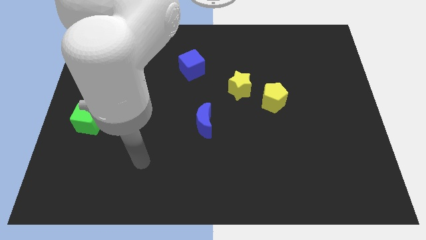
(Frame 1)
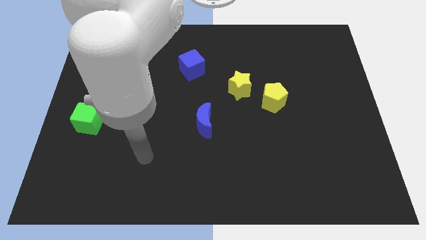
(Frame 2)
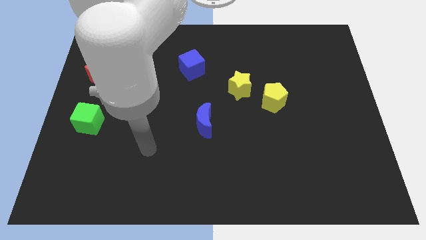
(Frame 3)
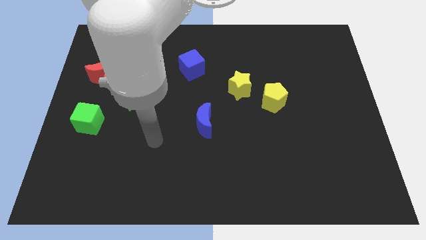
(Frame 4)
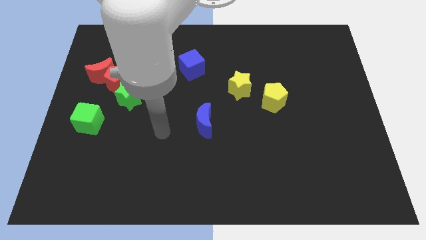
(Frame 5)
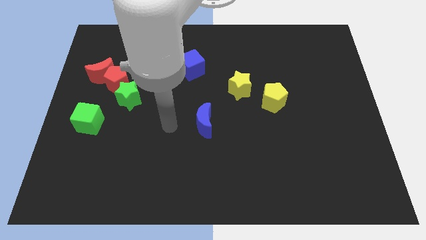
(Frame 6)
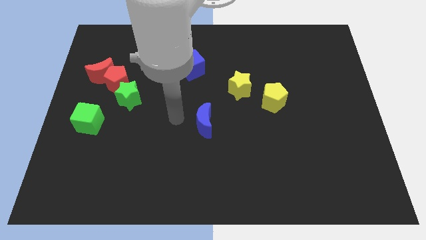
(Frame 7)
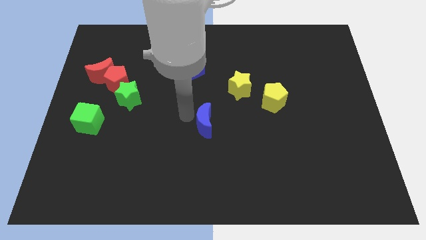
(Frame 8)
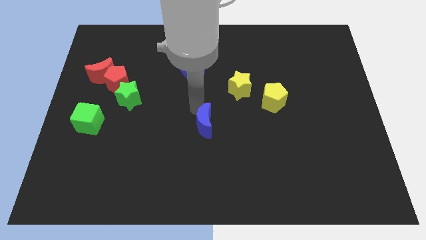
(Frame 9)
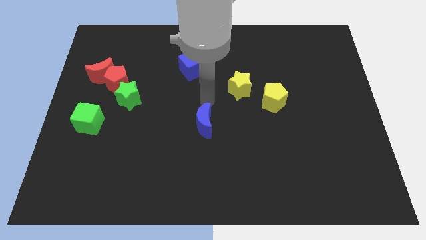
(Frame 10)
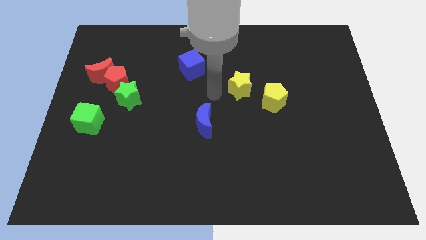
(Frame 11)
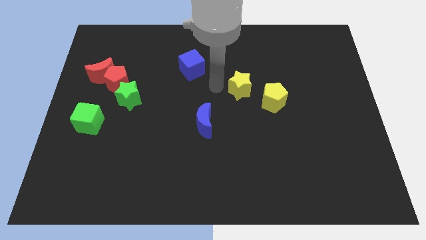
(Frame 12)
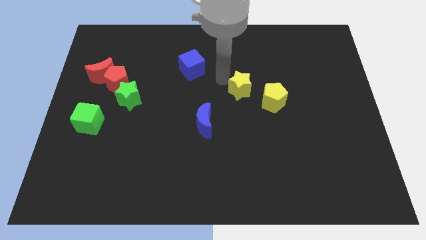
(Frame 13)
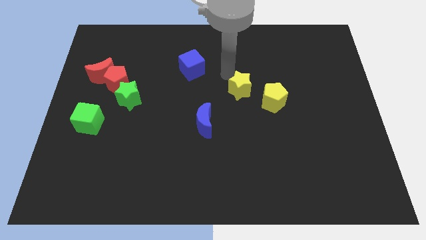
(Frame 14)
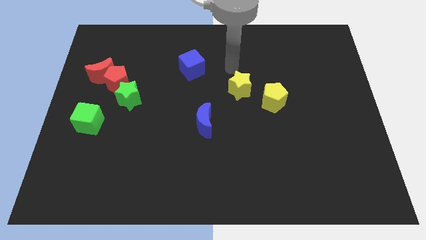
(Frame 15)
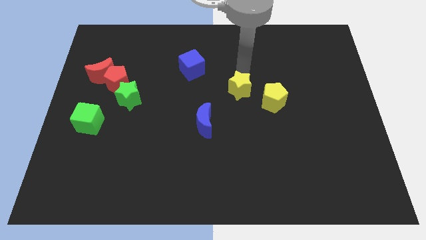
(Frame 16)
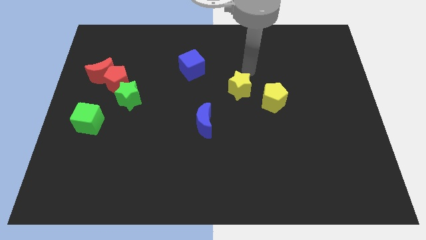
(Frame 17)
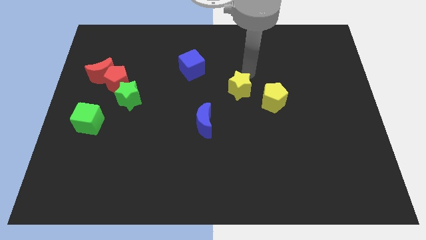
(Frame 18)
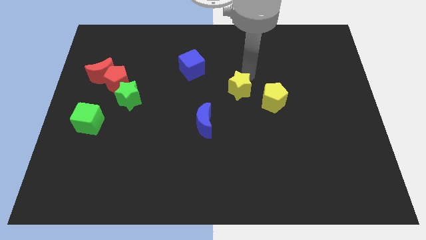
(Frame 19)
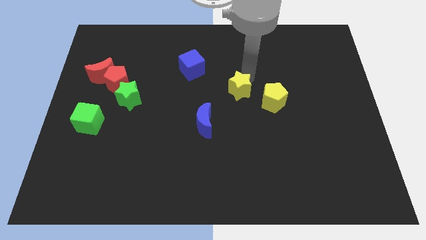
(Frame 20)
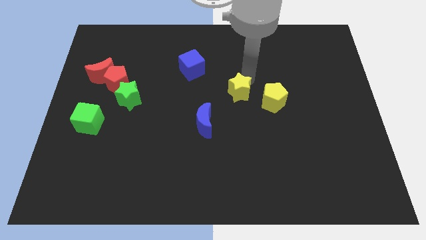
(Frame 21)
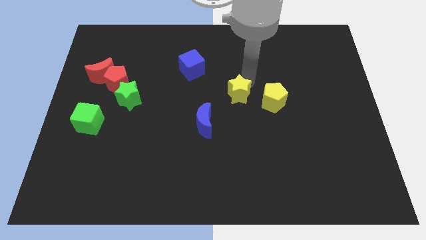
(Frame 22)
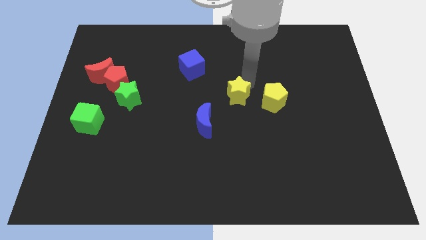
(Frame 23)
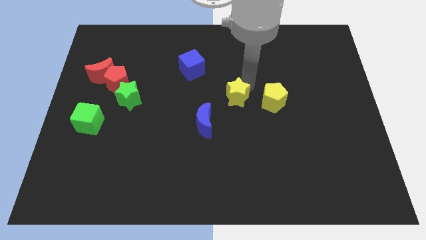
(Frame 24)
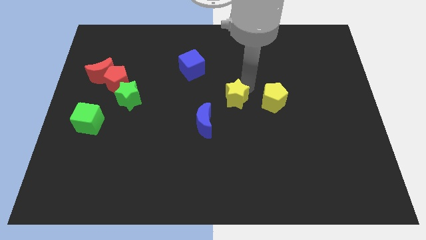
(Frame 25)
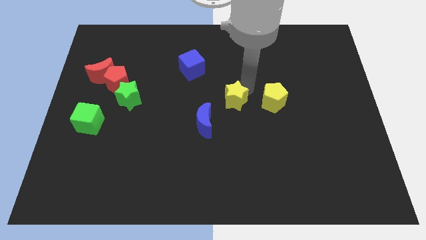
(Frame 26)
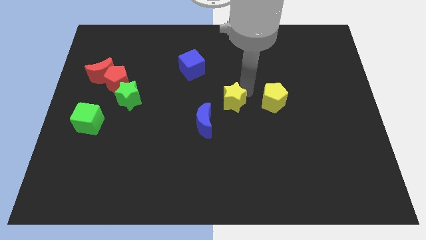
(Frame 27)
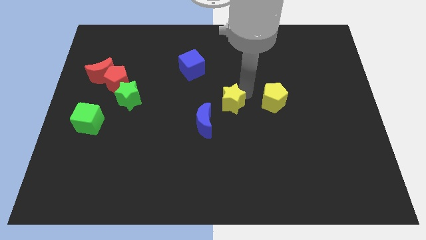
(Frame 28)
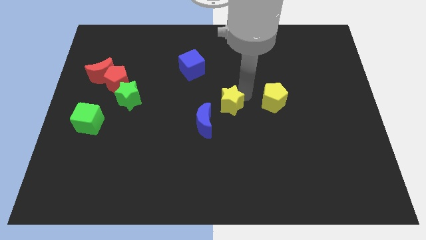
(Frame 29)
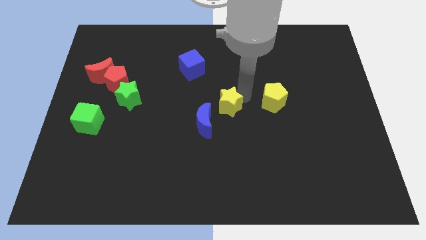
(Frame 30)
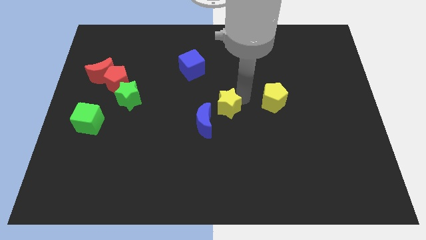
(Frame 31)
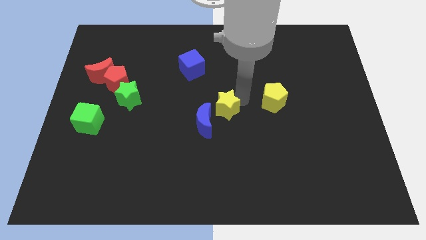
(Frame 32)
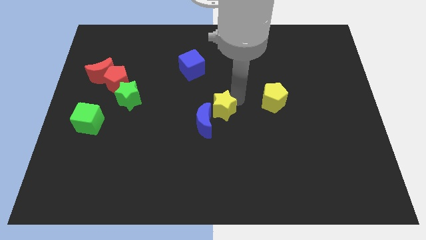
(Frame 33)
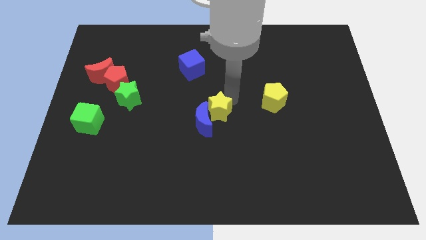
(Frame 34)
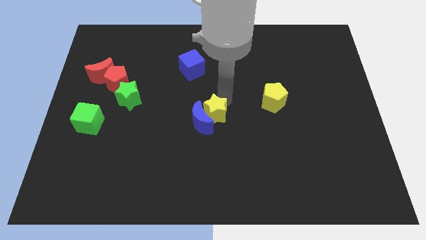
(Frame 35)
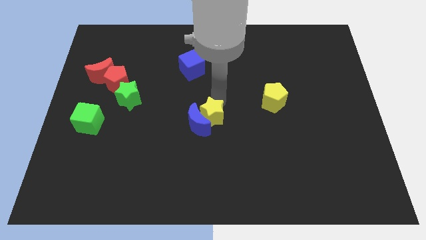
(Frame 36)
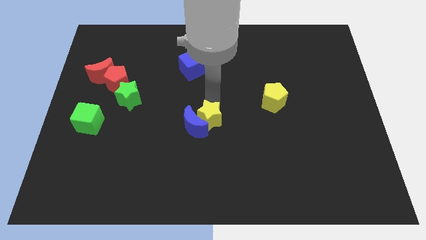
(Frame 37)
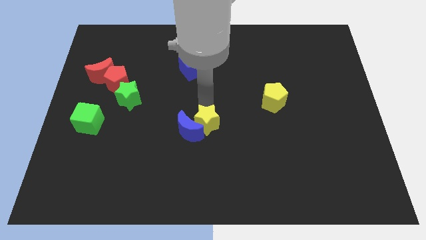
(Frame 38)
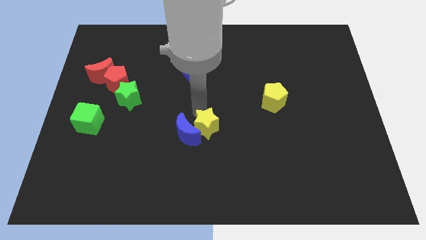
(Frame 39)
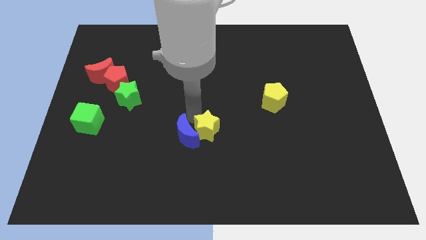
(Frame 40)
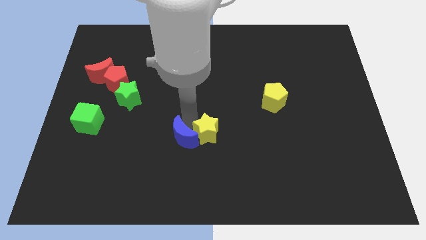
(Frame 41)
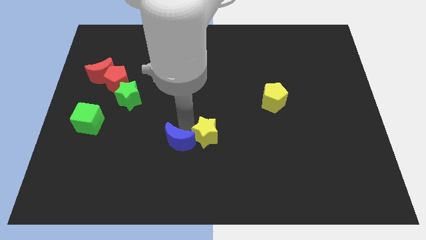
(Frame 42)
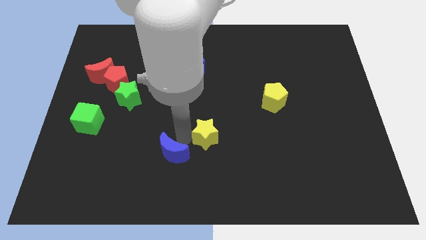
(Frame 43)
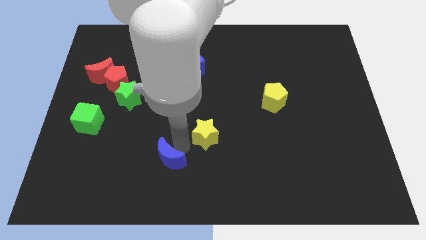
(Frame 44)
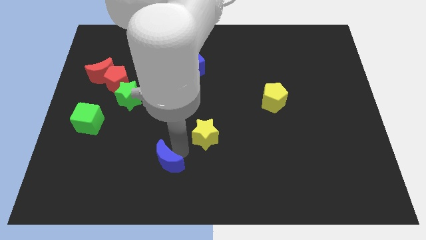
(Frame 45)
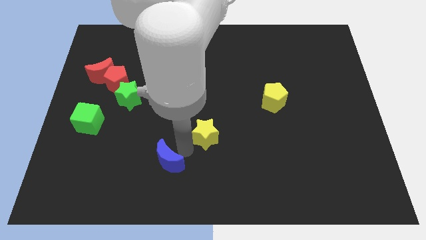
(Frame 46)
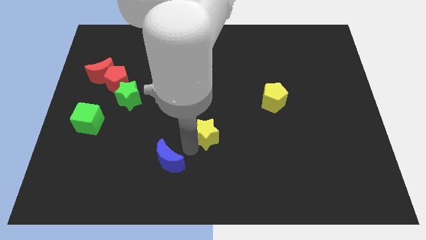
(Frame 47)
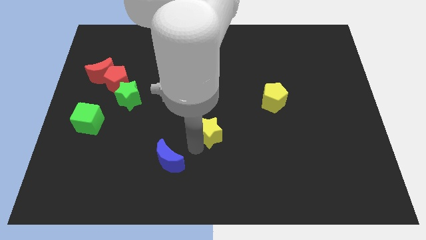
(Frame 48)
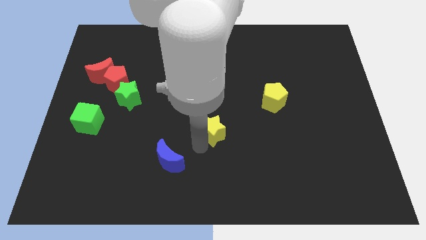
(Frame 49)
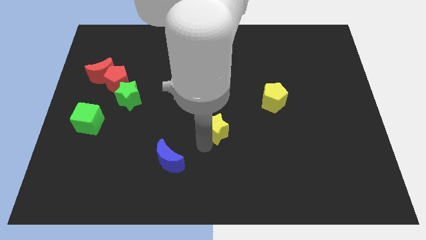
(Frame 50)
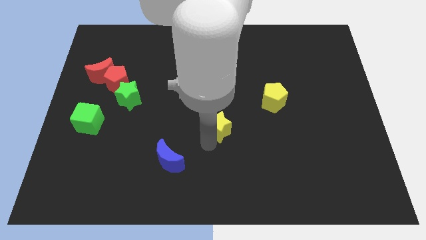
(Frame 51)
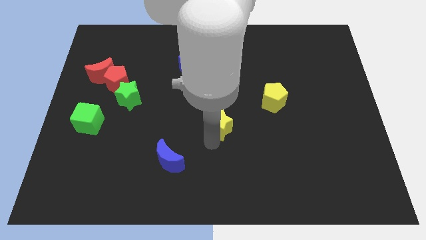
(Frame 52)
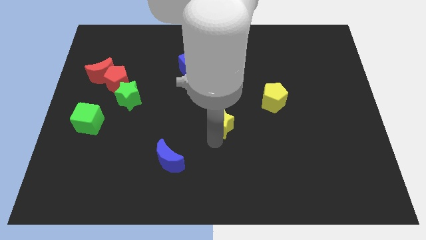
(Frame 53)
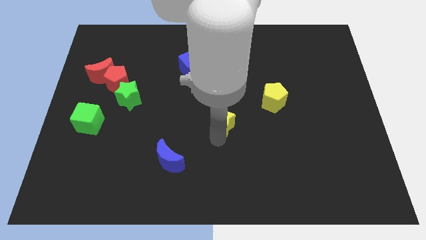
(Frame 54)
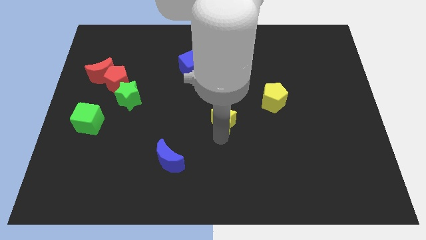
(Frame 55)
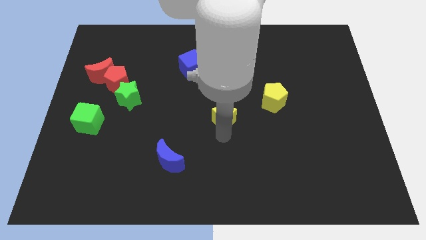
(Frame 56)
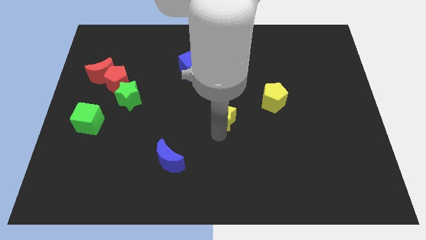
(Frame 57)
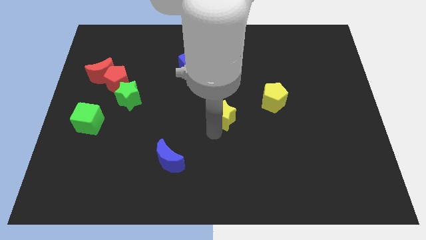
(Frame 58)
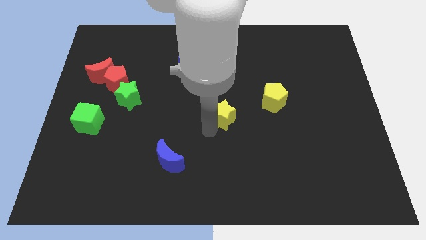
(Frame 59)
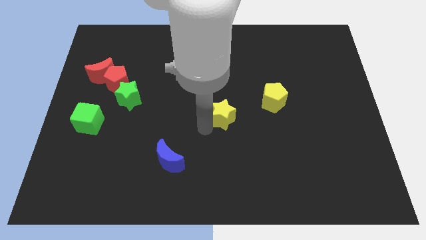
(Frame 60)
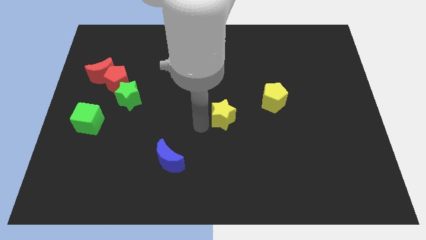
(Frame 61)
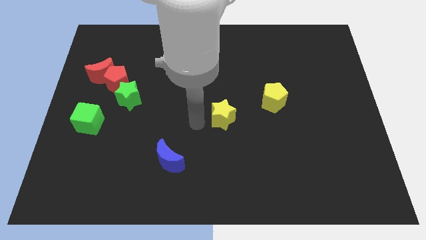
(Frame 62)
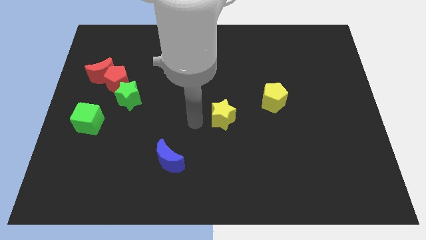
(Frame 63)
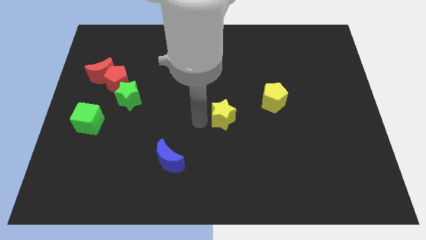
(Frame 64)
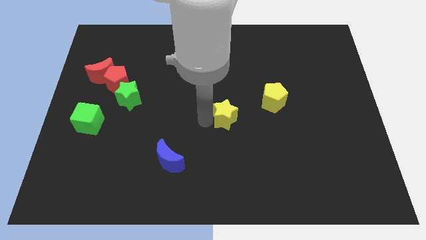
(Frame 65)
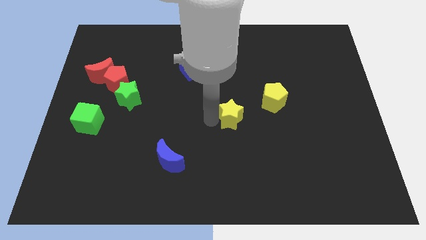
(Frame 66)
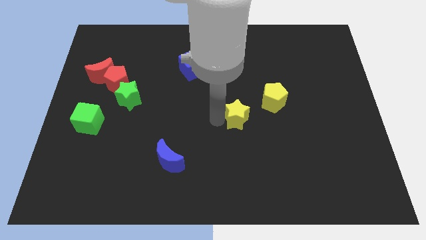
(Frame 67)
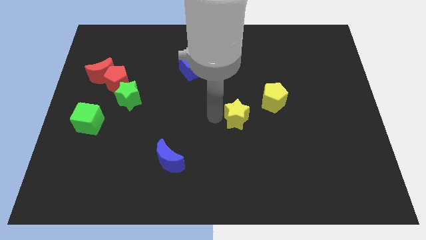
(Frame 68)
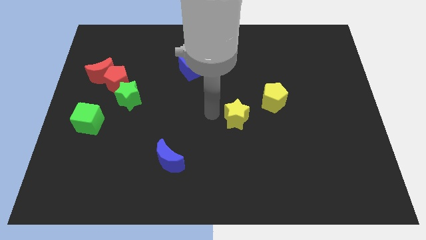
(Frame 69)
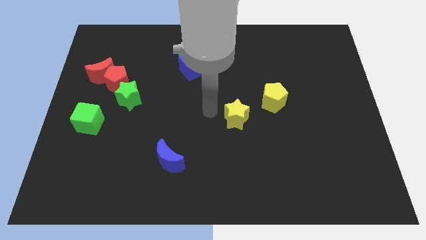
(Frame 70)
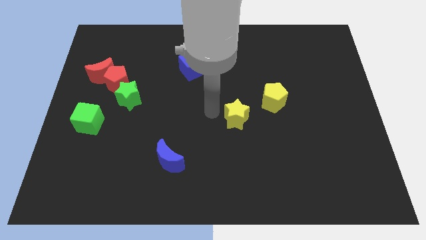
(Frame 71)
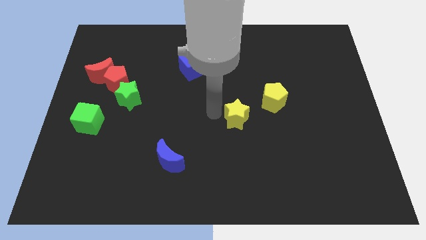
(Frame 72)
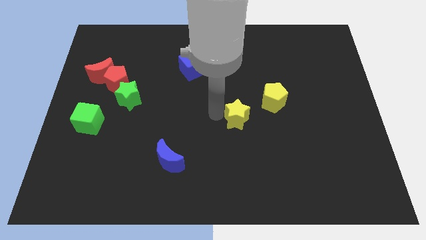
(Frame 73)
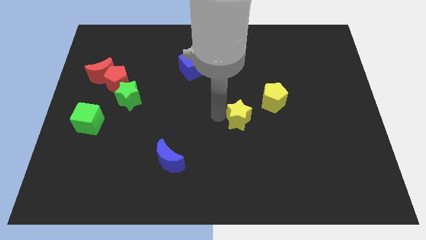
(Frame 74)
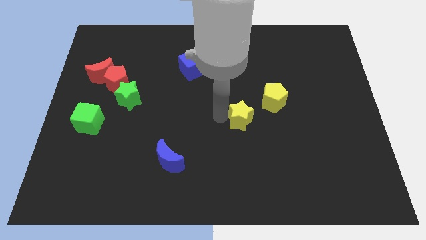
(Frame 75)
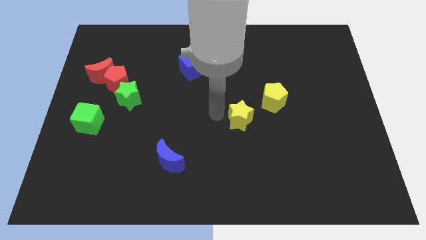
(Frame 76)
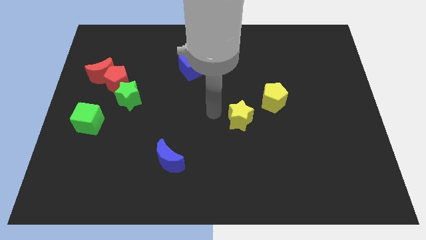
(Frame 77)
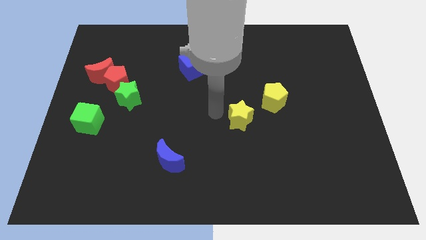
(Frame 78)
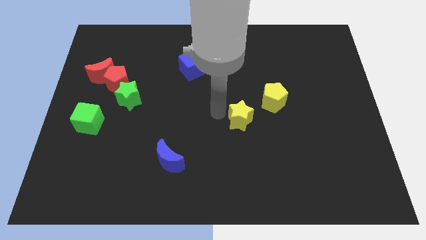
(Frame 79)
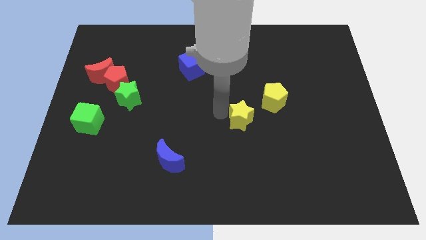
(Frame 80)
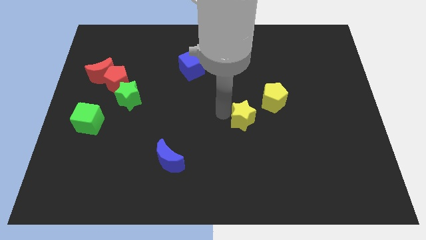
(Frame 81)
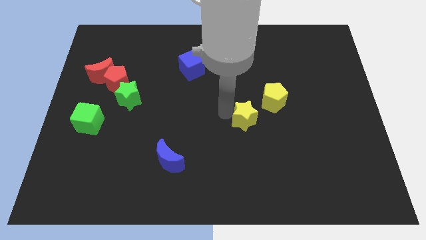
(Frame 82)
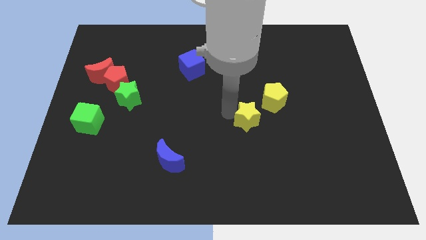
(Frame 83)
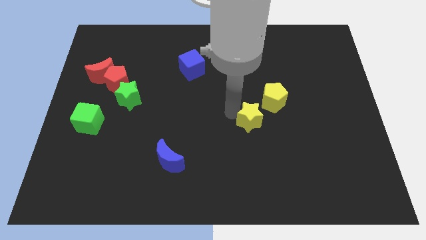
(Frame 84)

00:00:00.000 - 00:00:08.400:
slightly move the yellow star diagonally downwards and right
